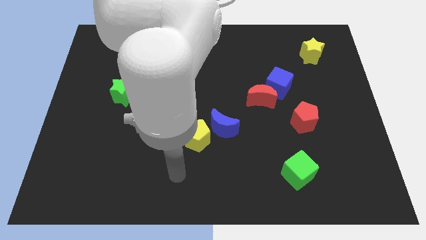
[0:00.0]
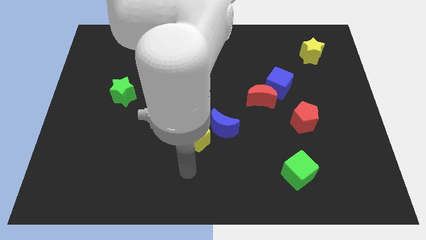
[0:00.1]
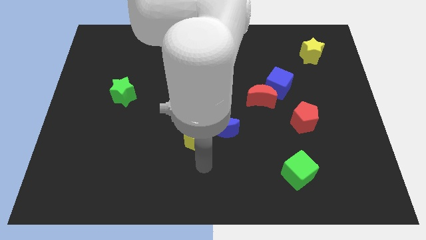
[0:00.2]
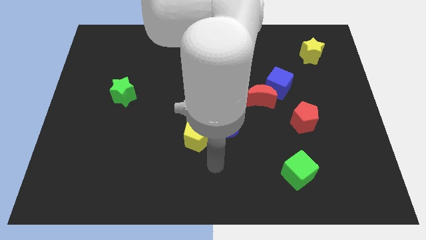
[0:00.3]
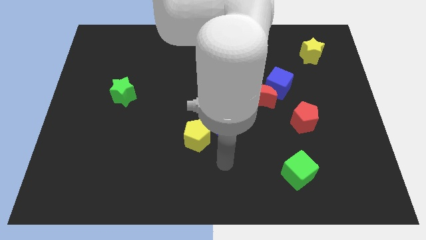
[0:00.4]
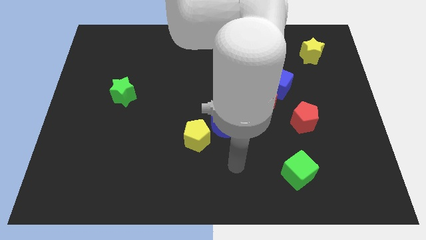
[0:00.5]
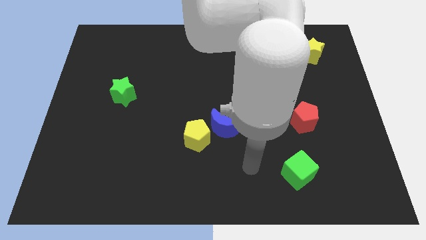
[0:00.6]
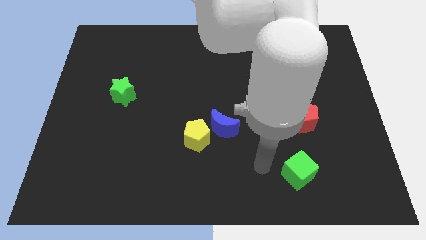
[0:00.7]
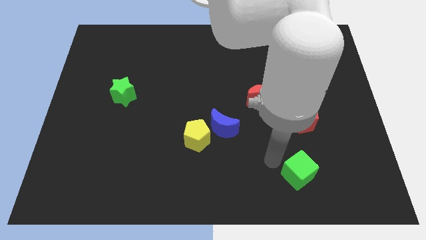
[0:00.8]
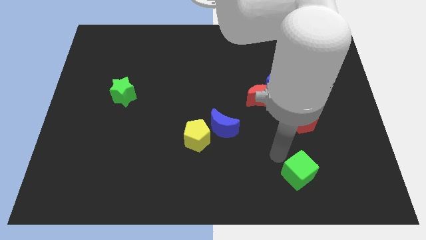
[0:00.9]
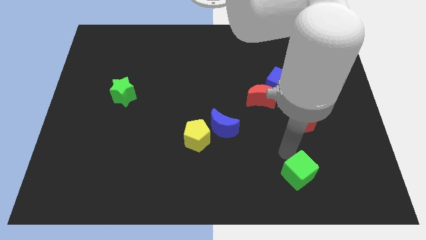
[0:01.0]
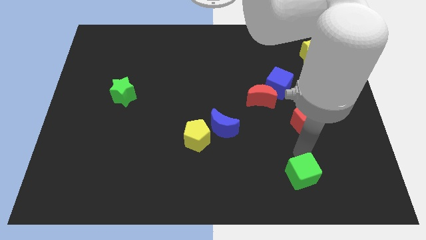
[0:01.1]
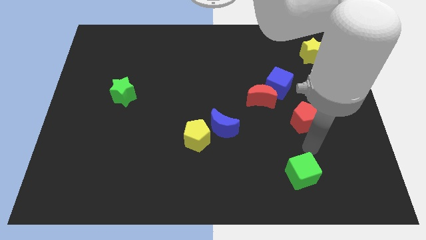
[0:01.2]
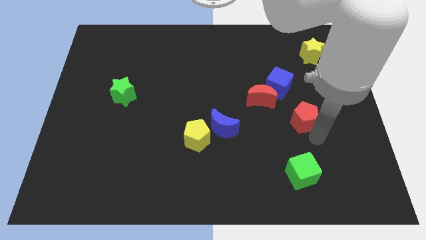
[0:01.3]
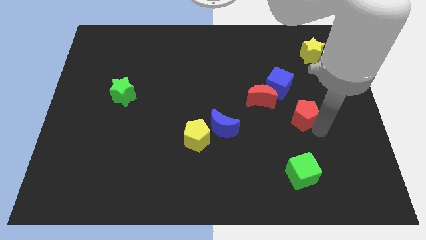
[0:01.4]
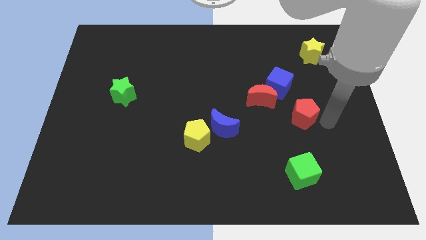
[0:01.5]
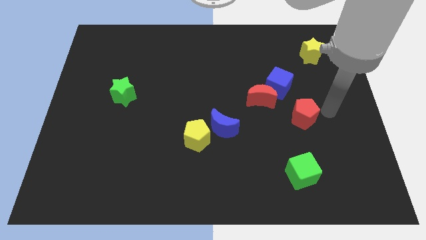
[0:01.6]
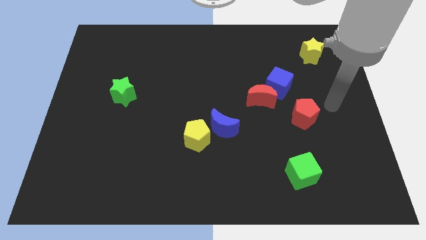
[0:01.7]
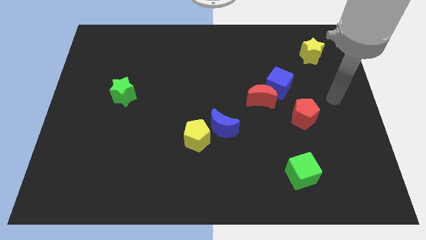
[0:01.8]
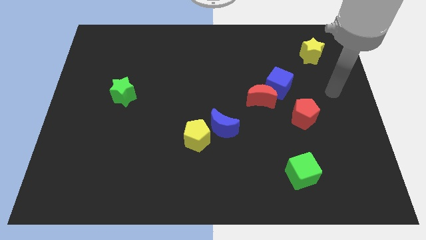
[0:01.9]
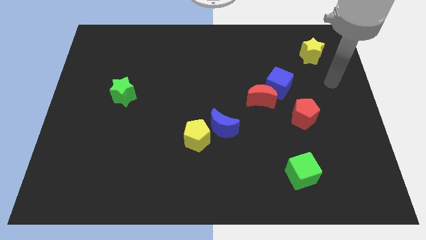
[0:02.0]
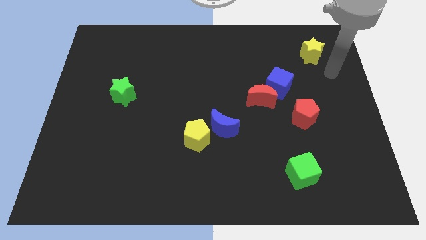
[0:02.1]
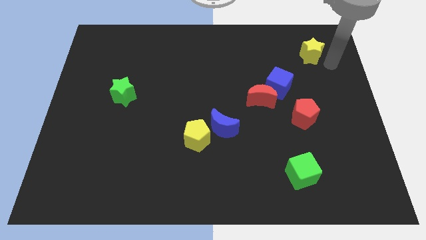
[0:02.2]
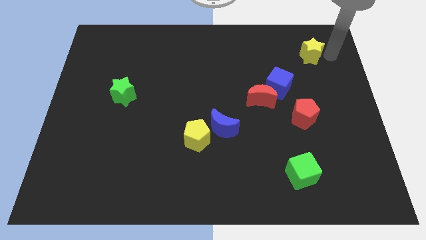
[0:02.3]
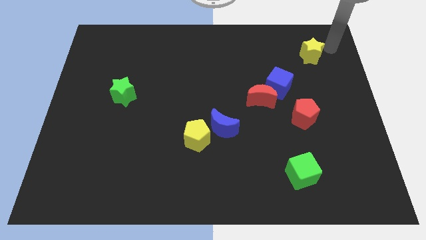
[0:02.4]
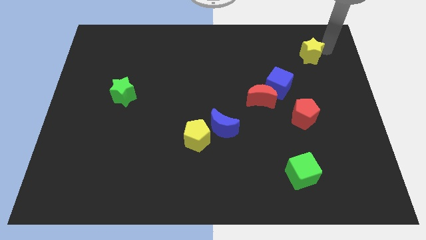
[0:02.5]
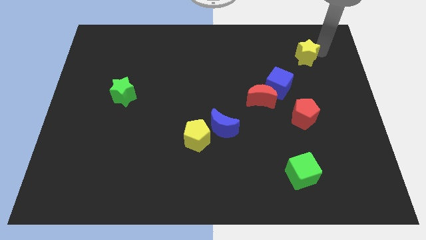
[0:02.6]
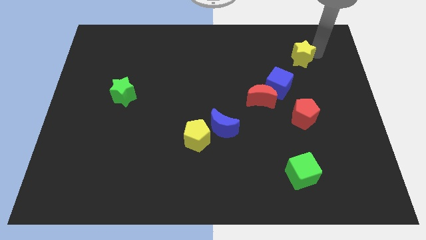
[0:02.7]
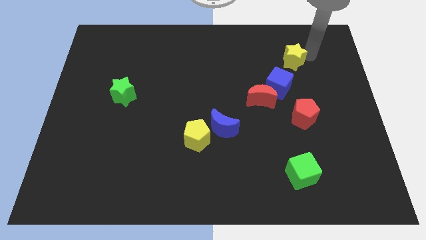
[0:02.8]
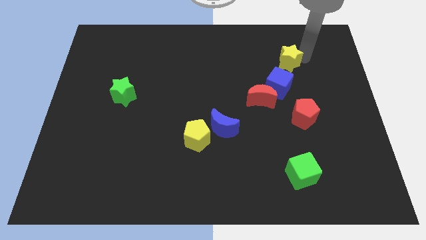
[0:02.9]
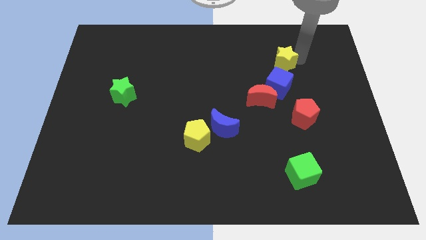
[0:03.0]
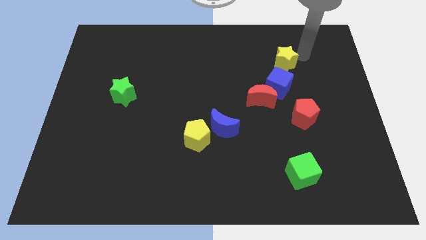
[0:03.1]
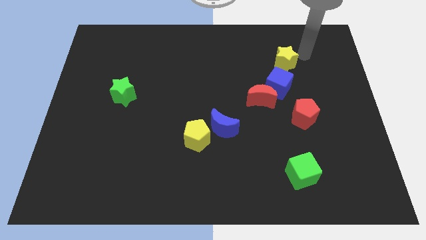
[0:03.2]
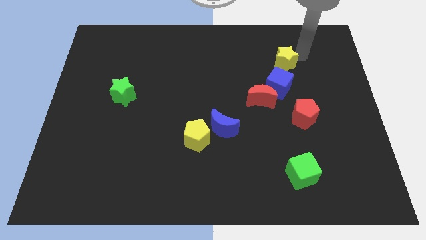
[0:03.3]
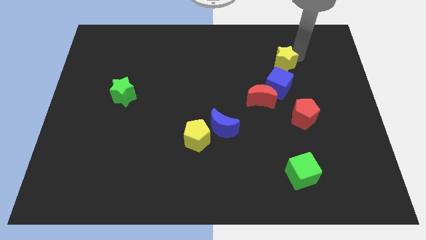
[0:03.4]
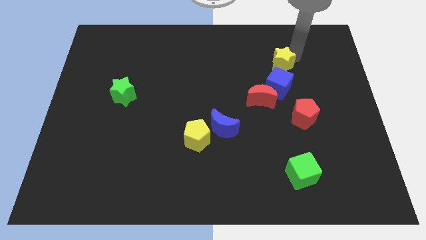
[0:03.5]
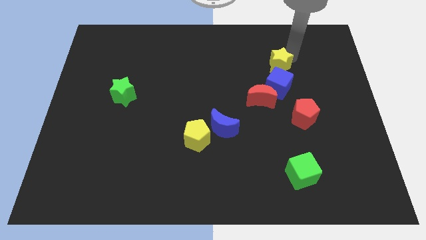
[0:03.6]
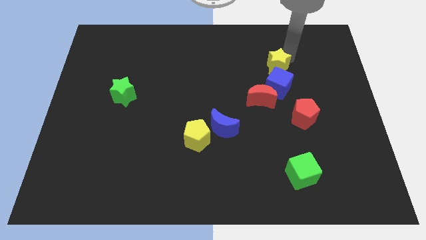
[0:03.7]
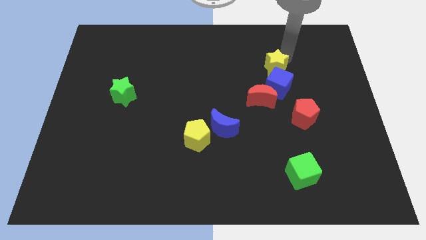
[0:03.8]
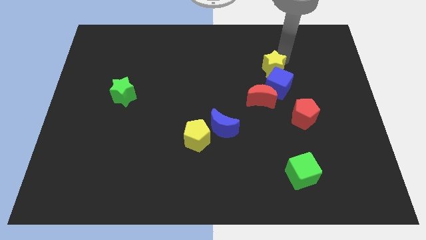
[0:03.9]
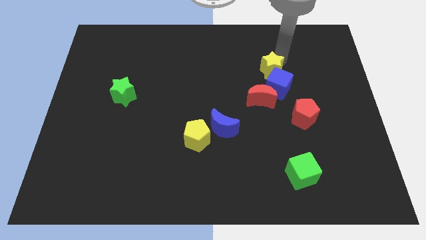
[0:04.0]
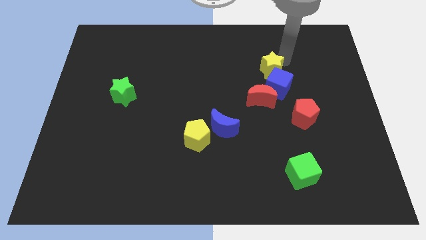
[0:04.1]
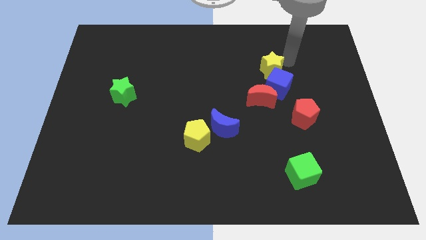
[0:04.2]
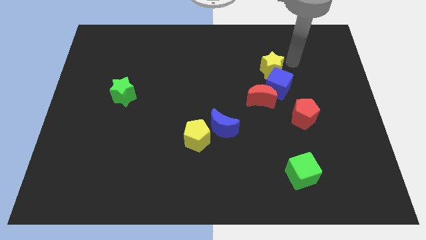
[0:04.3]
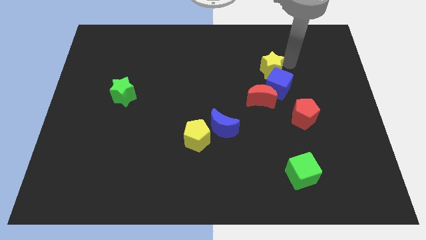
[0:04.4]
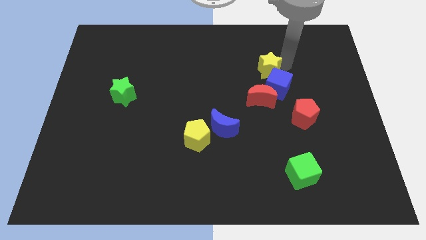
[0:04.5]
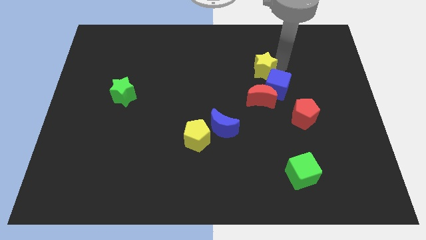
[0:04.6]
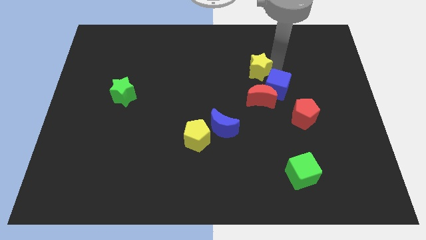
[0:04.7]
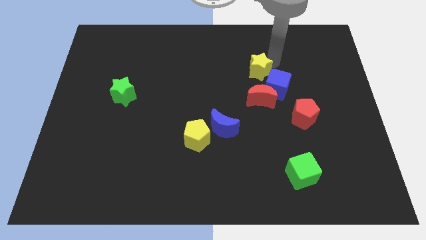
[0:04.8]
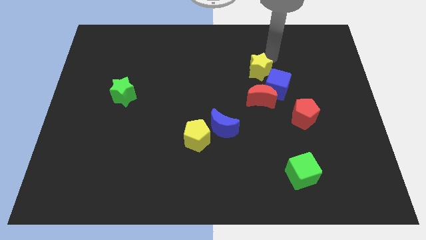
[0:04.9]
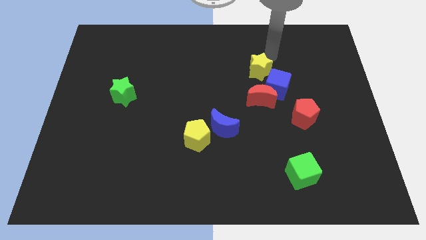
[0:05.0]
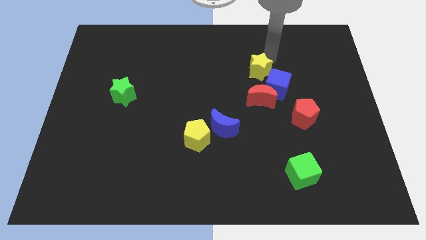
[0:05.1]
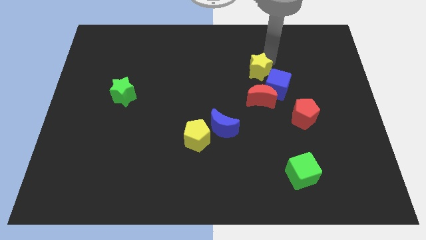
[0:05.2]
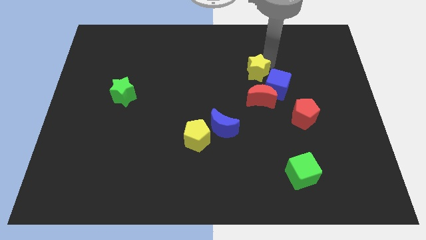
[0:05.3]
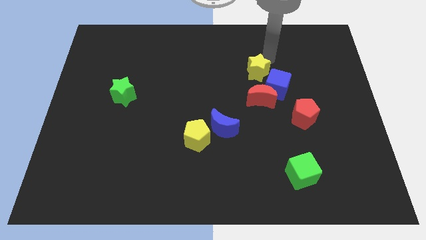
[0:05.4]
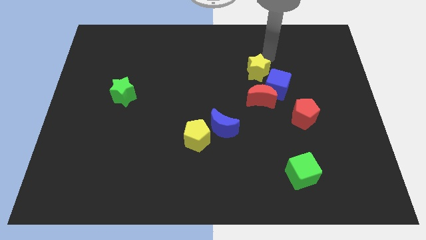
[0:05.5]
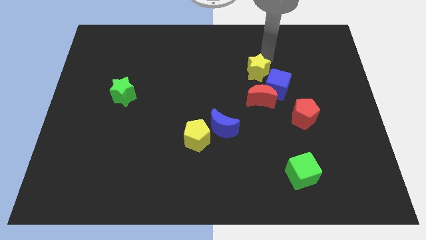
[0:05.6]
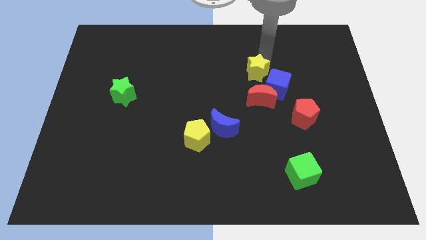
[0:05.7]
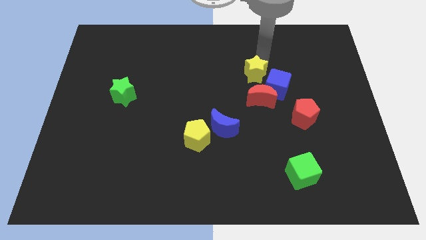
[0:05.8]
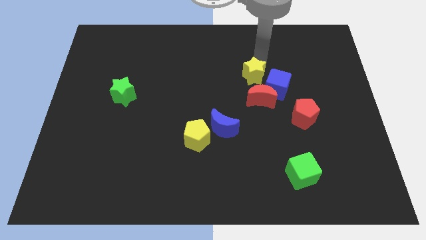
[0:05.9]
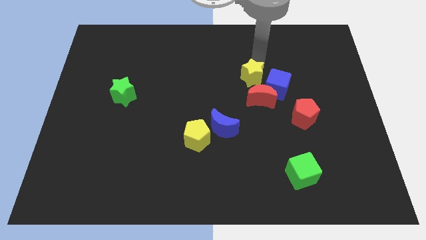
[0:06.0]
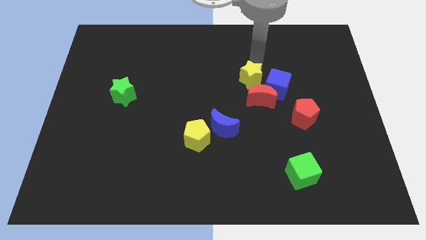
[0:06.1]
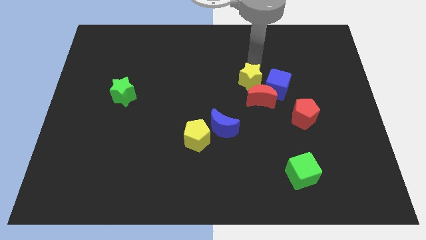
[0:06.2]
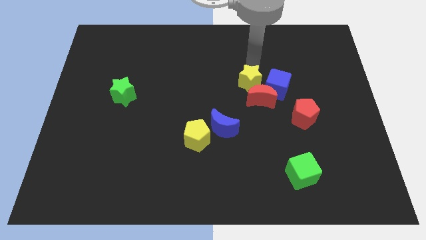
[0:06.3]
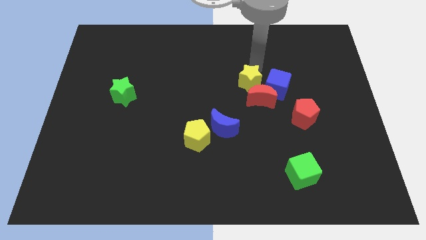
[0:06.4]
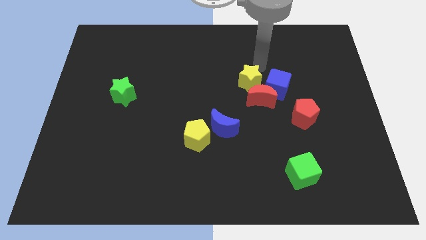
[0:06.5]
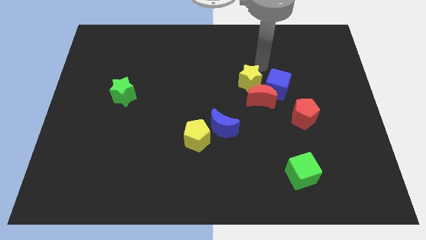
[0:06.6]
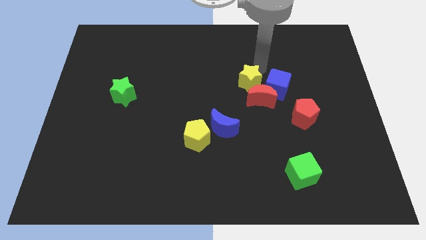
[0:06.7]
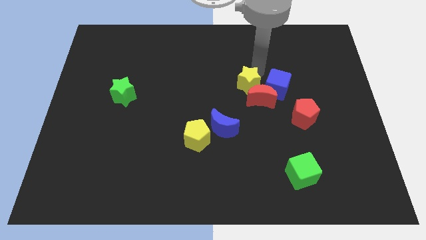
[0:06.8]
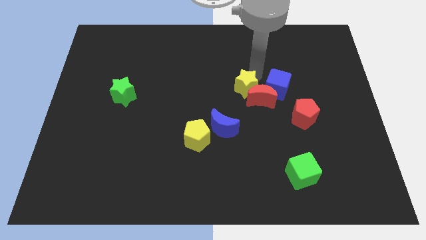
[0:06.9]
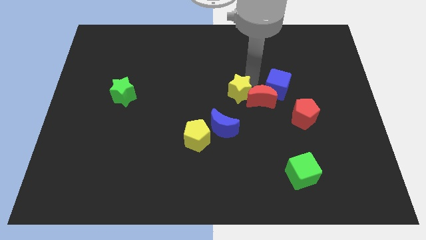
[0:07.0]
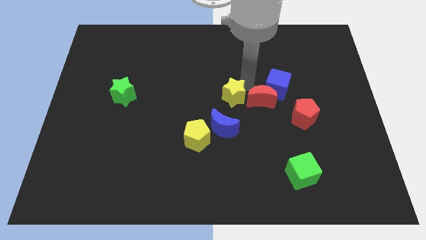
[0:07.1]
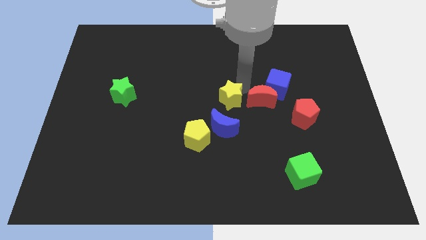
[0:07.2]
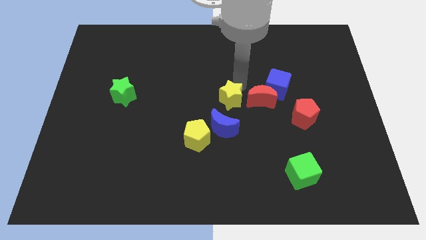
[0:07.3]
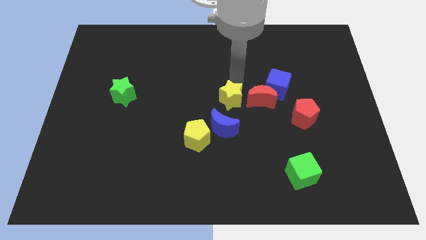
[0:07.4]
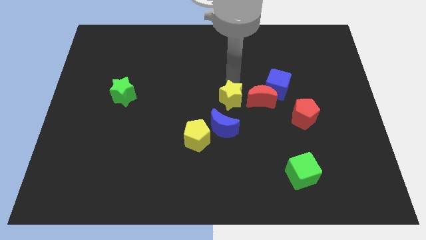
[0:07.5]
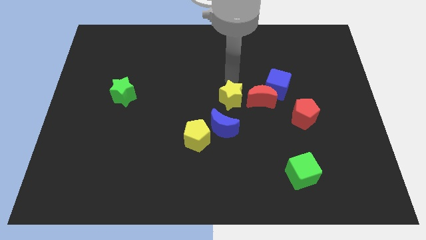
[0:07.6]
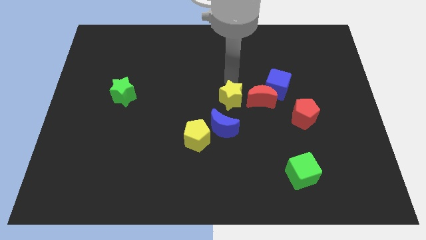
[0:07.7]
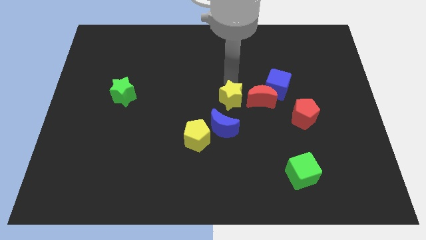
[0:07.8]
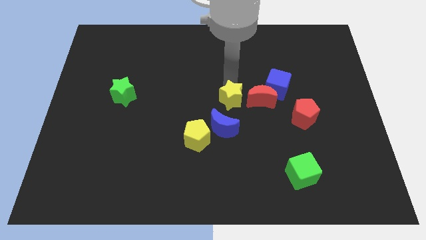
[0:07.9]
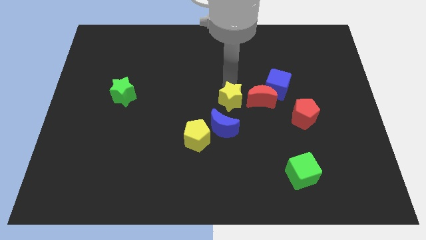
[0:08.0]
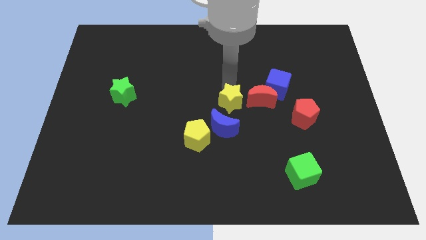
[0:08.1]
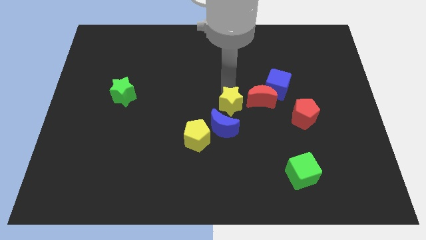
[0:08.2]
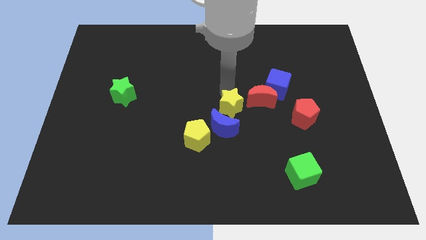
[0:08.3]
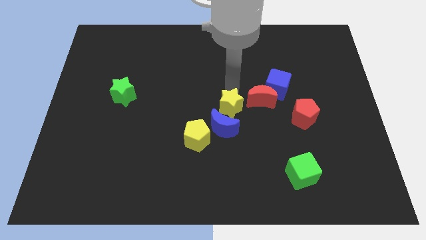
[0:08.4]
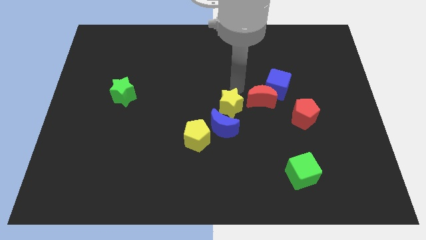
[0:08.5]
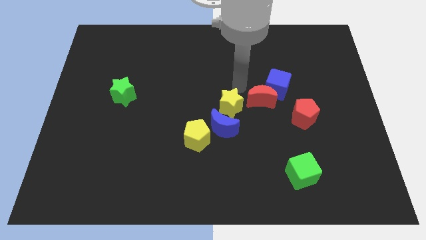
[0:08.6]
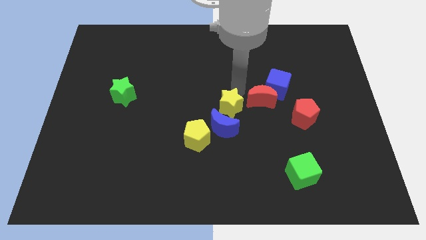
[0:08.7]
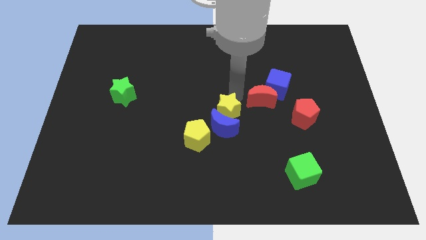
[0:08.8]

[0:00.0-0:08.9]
put the yellow star towards the blue moon
